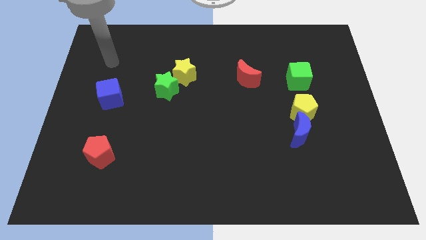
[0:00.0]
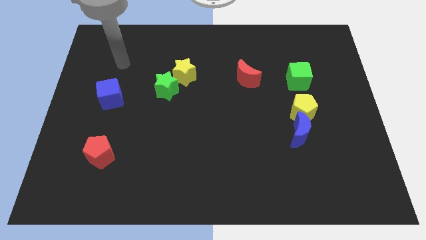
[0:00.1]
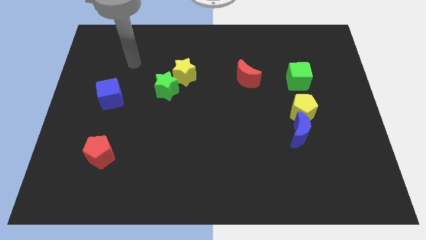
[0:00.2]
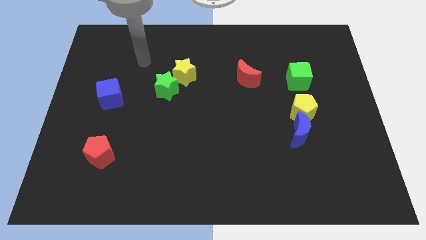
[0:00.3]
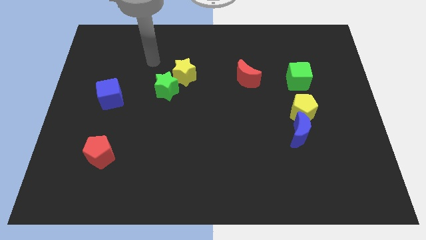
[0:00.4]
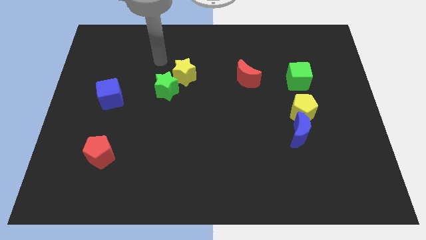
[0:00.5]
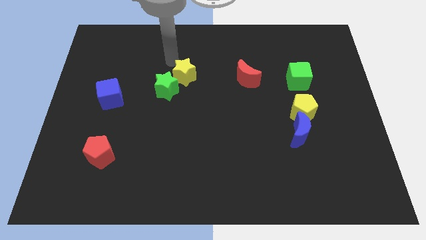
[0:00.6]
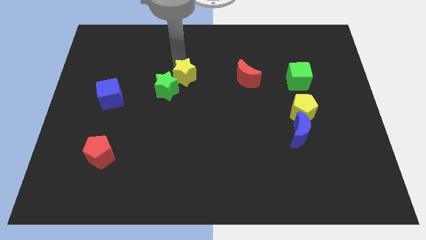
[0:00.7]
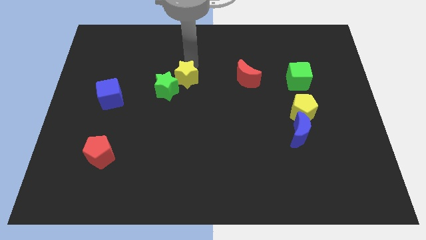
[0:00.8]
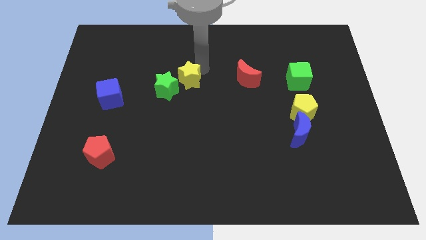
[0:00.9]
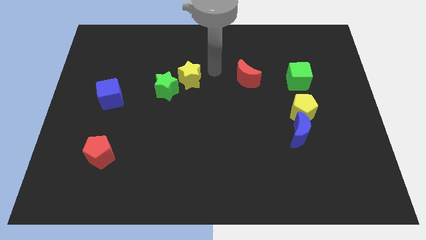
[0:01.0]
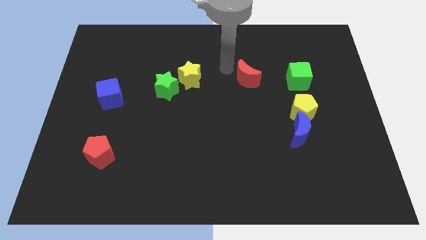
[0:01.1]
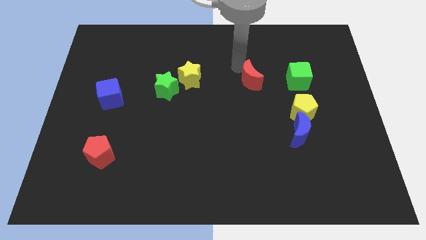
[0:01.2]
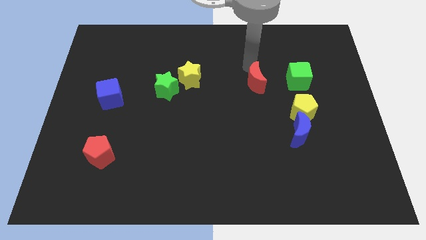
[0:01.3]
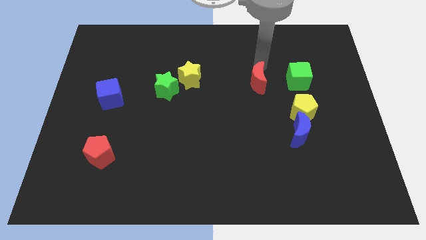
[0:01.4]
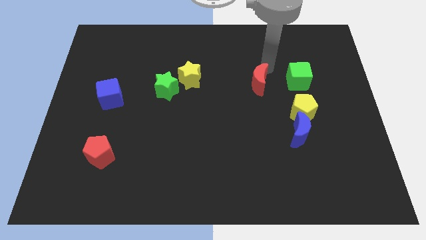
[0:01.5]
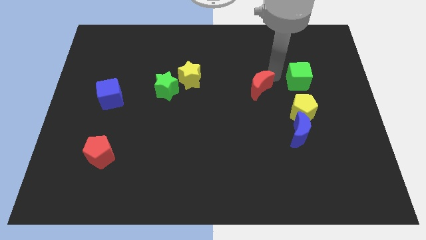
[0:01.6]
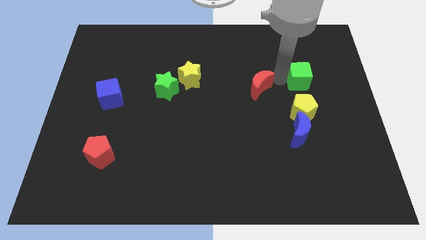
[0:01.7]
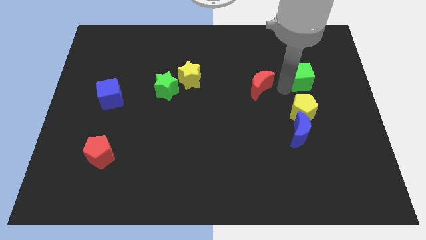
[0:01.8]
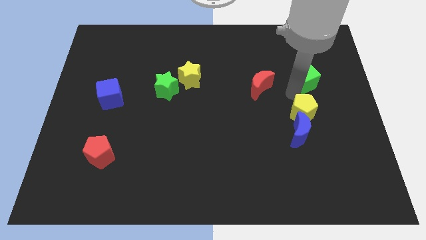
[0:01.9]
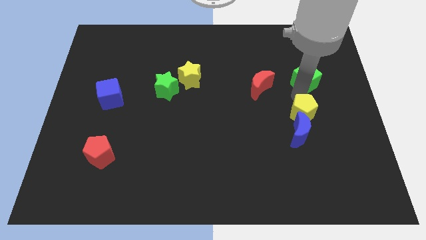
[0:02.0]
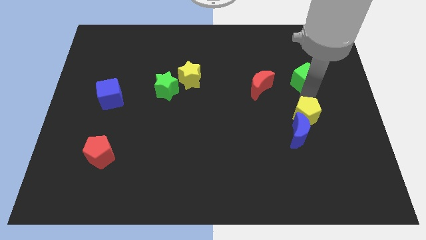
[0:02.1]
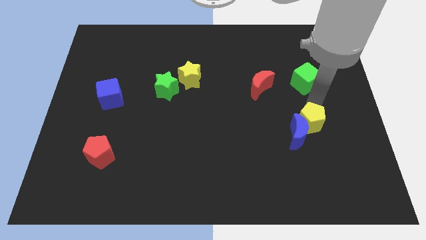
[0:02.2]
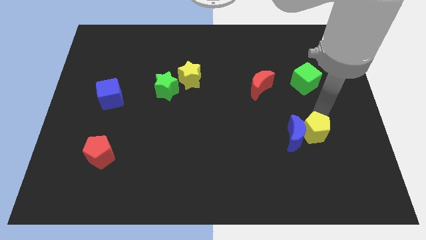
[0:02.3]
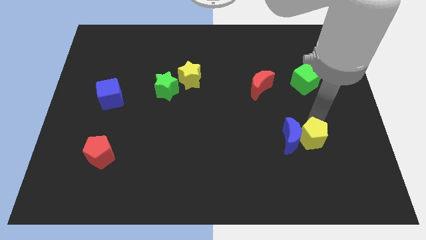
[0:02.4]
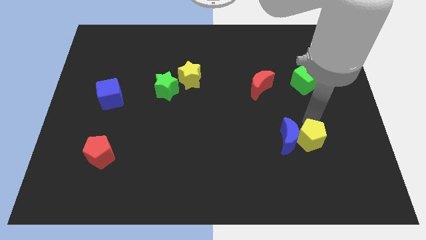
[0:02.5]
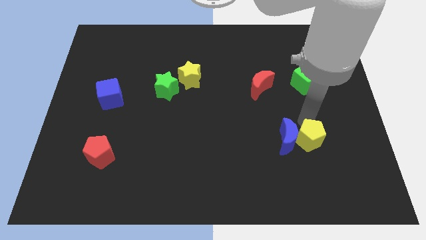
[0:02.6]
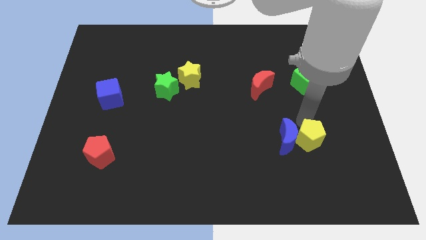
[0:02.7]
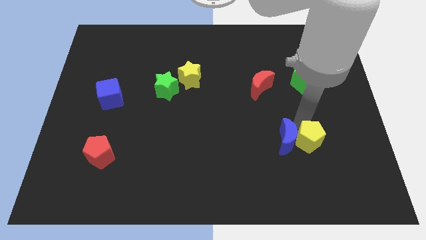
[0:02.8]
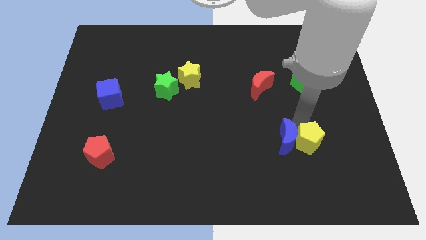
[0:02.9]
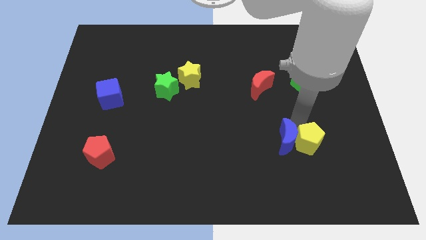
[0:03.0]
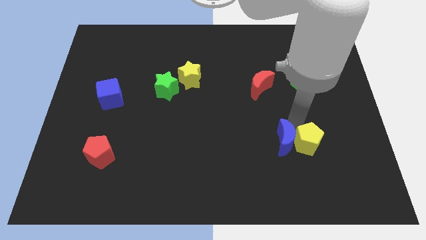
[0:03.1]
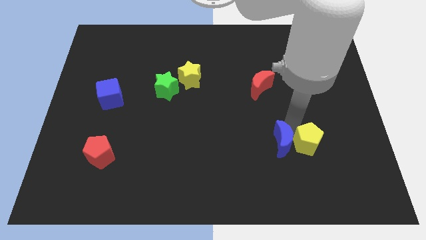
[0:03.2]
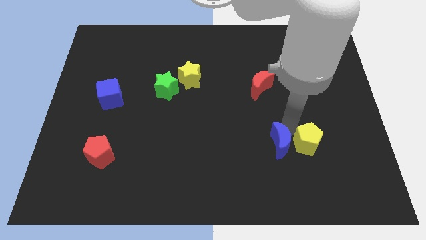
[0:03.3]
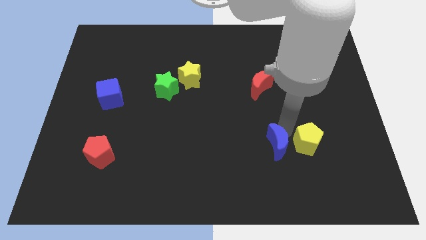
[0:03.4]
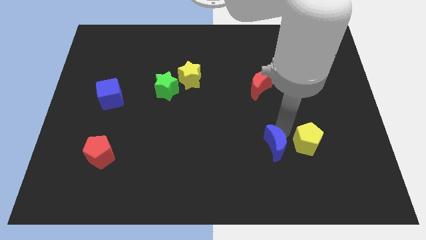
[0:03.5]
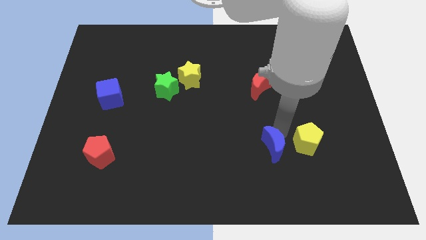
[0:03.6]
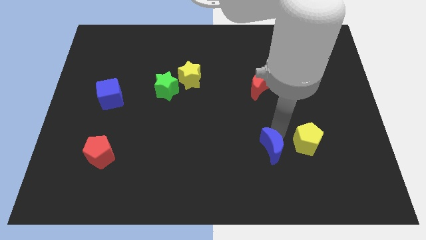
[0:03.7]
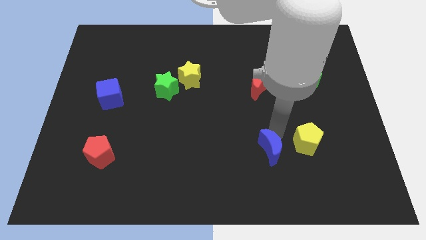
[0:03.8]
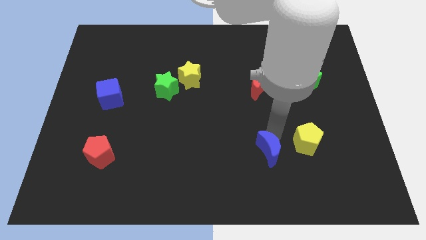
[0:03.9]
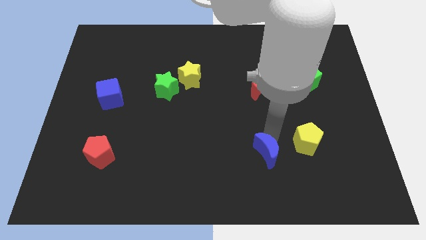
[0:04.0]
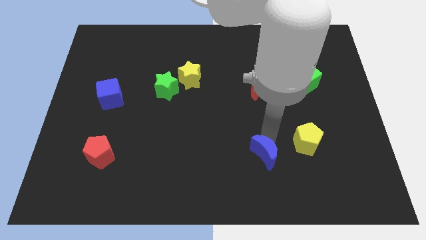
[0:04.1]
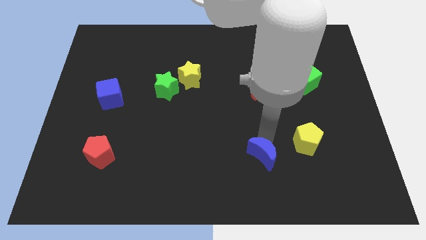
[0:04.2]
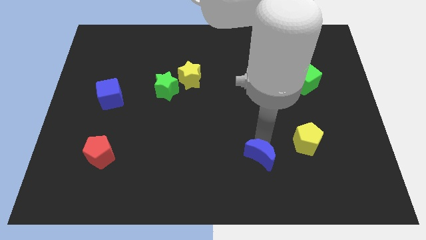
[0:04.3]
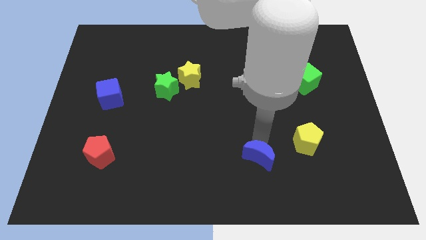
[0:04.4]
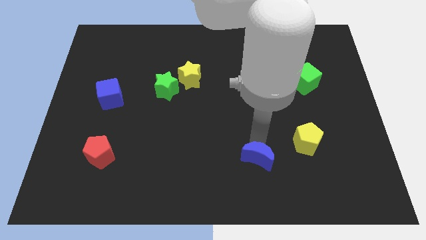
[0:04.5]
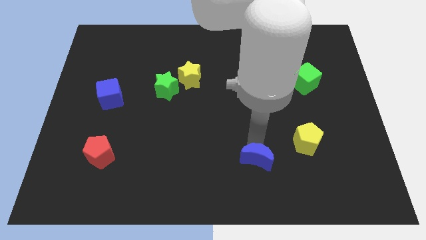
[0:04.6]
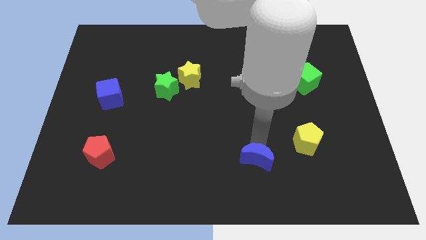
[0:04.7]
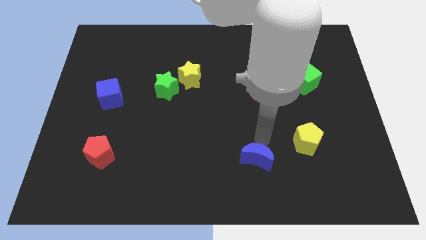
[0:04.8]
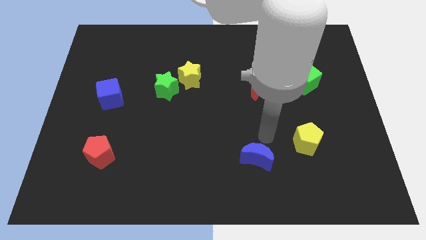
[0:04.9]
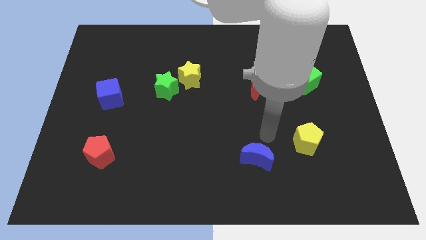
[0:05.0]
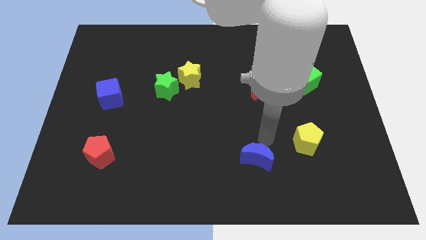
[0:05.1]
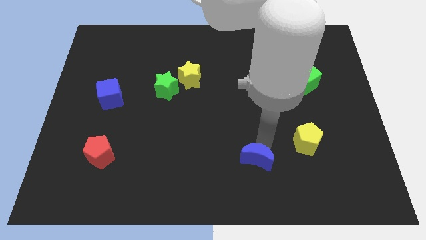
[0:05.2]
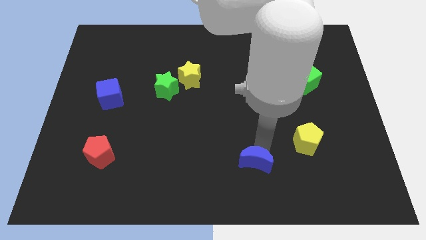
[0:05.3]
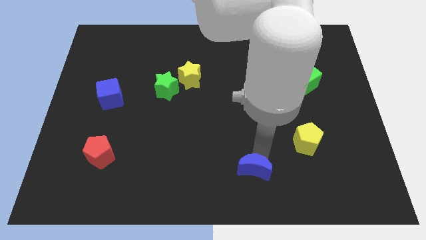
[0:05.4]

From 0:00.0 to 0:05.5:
move the blue moon to the bottom side

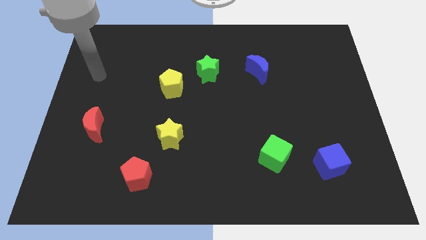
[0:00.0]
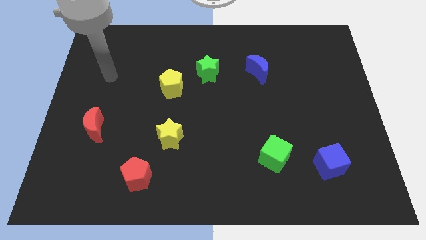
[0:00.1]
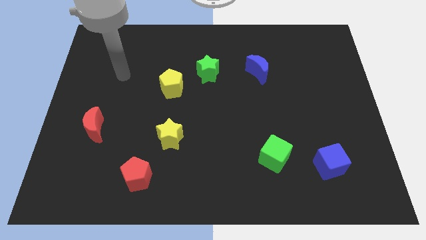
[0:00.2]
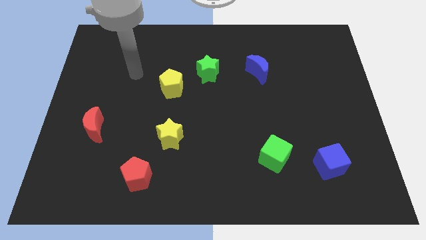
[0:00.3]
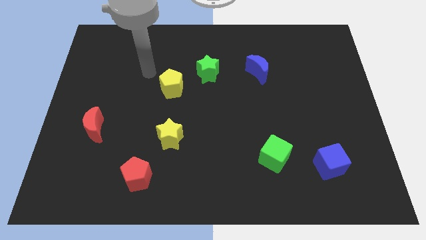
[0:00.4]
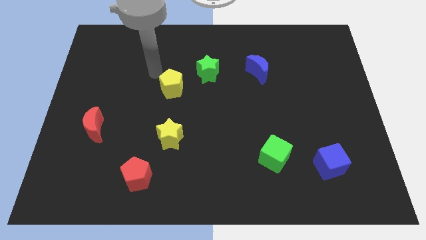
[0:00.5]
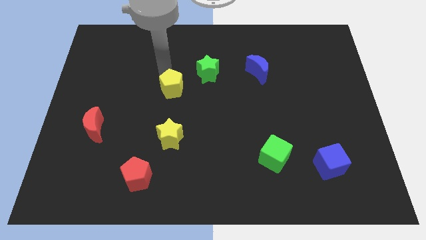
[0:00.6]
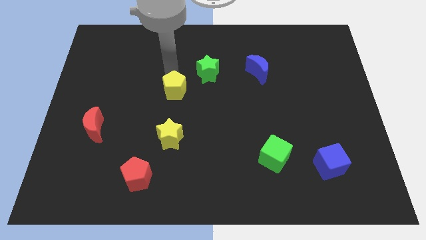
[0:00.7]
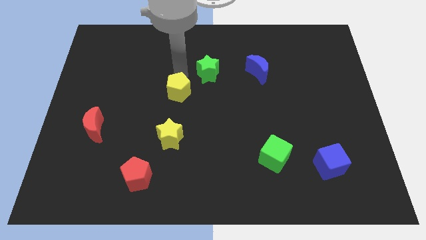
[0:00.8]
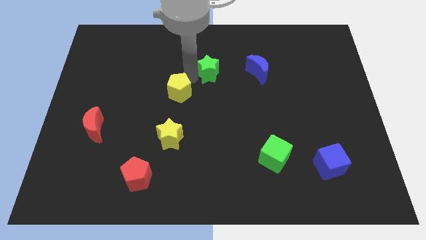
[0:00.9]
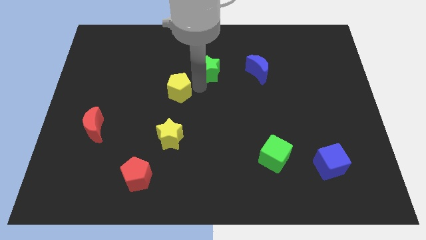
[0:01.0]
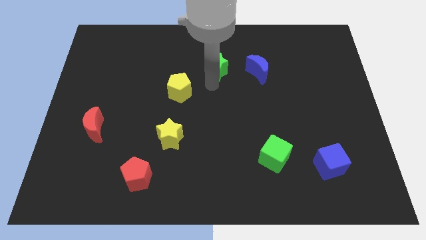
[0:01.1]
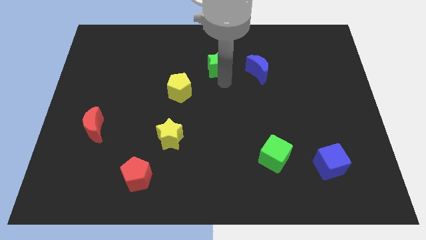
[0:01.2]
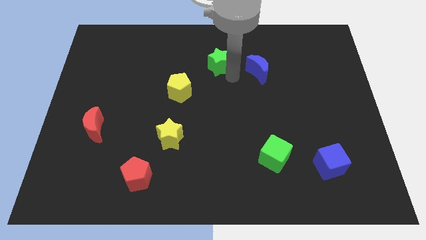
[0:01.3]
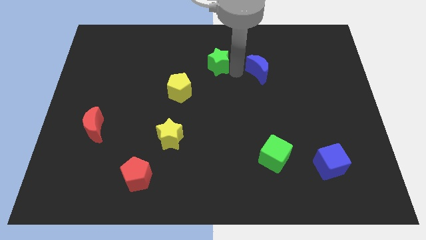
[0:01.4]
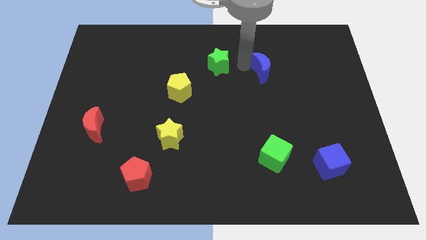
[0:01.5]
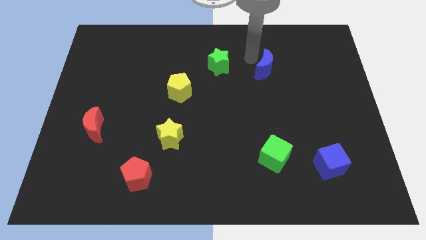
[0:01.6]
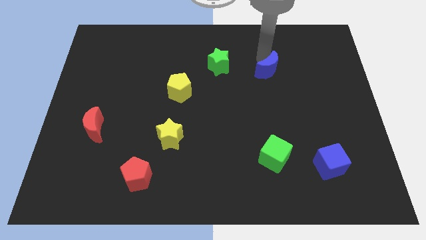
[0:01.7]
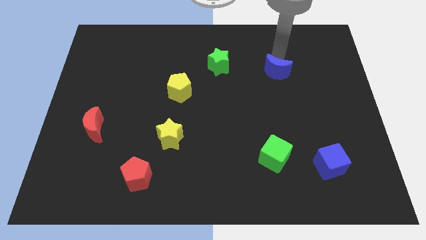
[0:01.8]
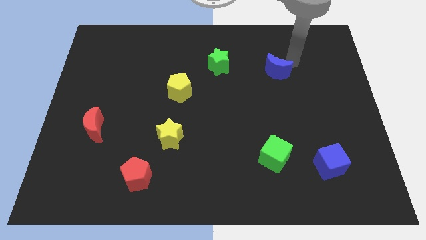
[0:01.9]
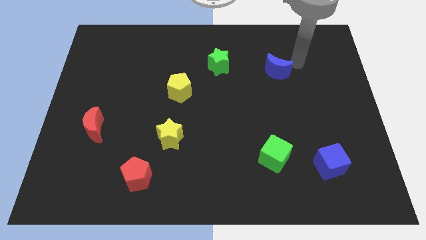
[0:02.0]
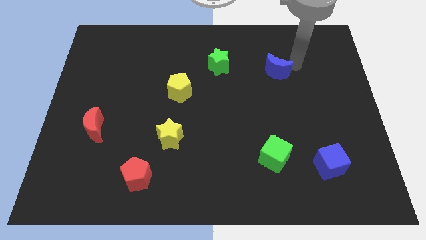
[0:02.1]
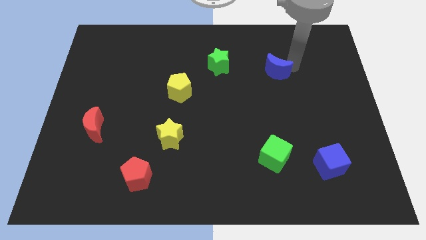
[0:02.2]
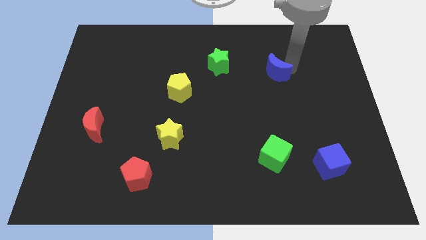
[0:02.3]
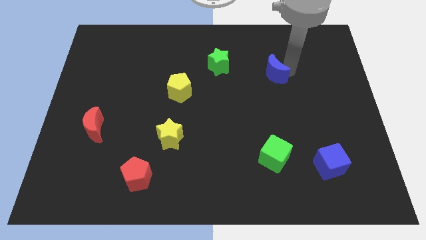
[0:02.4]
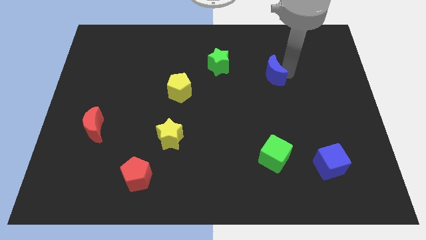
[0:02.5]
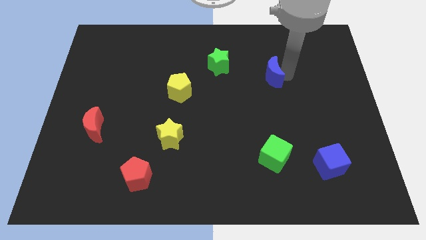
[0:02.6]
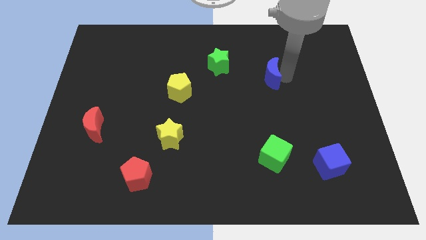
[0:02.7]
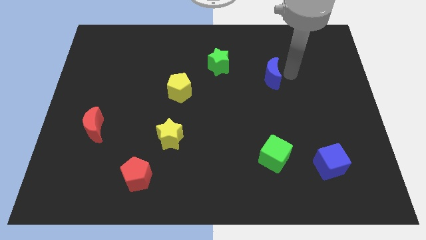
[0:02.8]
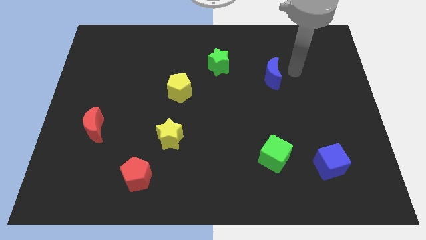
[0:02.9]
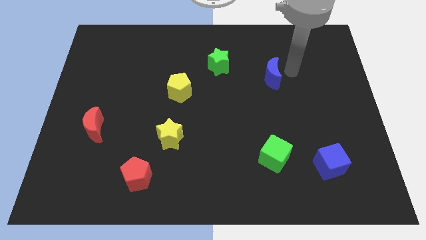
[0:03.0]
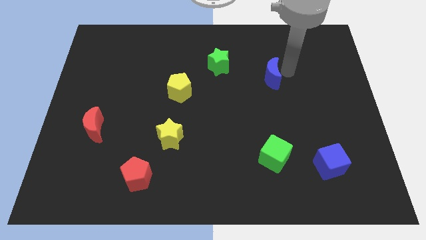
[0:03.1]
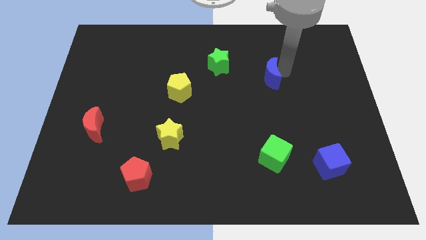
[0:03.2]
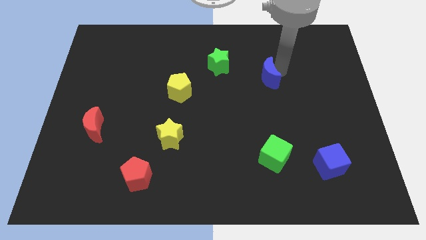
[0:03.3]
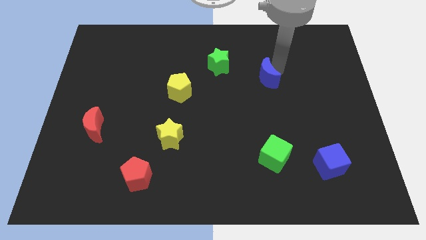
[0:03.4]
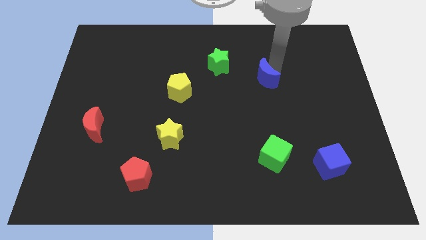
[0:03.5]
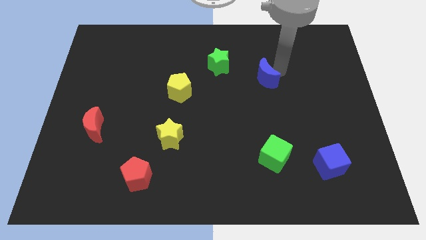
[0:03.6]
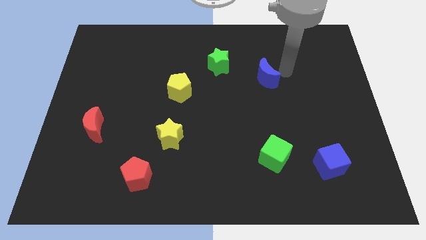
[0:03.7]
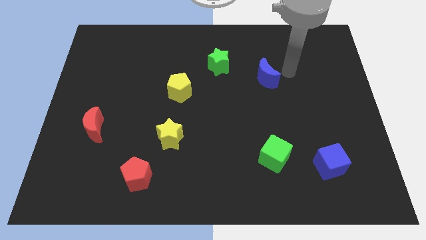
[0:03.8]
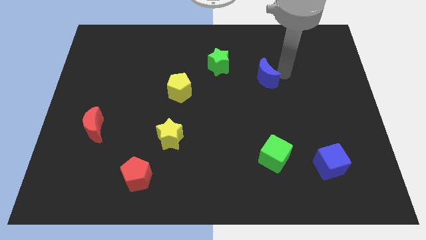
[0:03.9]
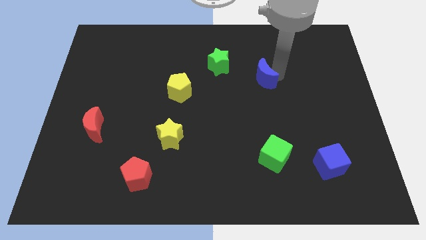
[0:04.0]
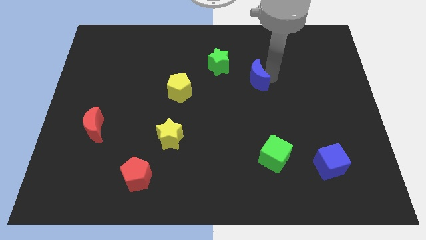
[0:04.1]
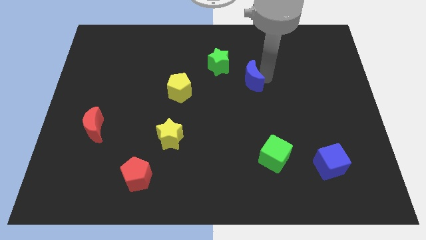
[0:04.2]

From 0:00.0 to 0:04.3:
slide the blue moon to the center
